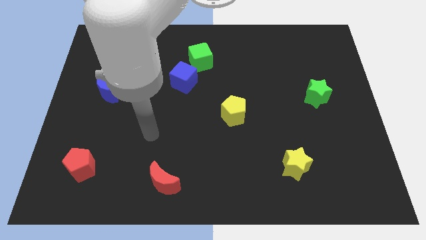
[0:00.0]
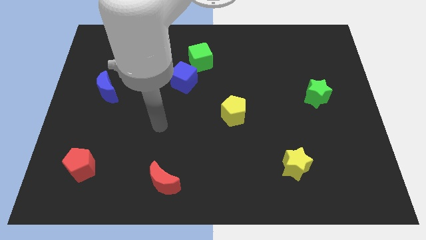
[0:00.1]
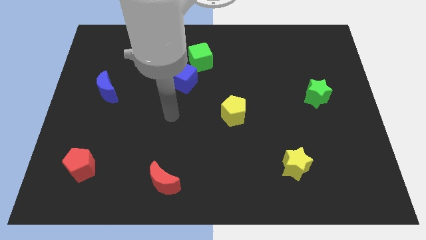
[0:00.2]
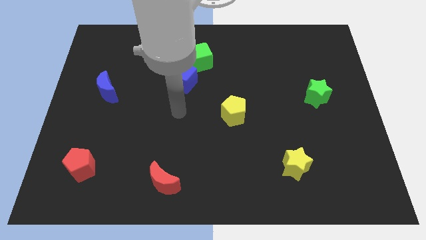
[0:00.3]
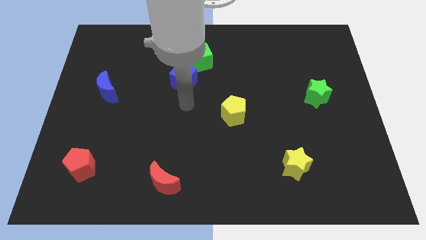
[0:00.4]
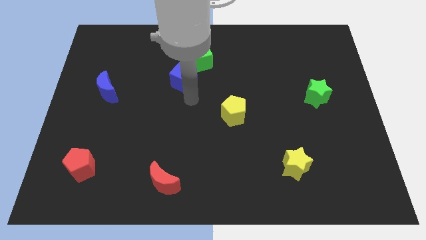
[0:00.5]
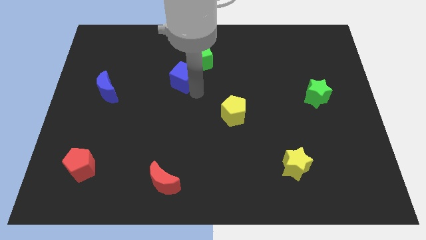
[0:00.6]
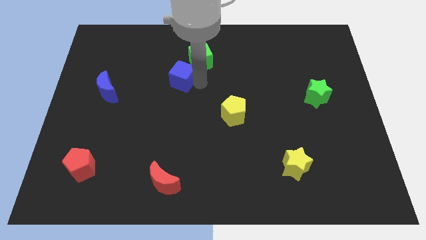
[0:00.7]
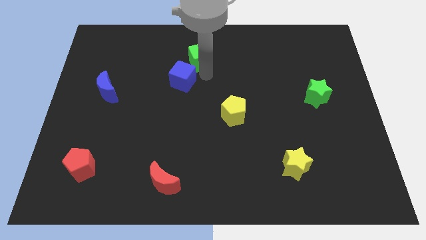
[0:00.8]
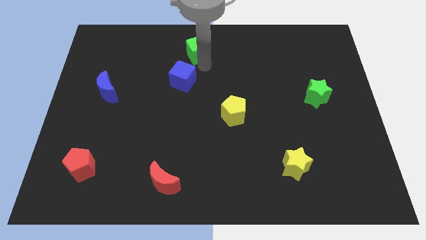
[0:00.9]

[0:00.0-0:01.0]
pull the blue cube apart from the green cube

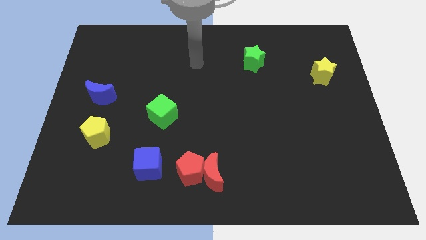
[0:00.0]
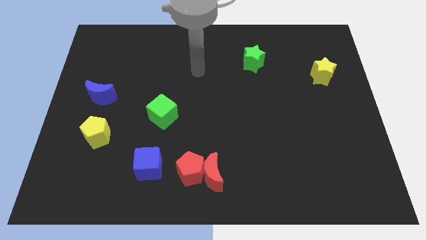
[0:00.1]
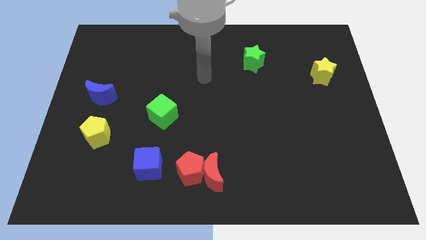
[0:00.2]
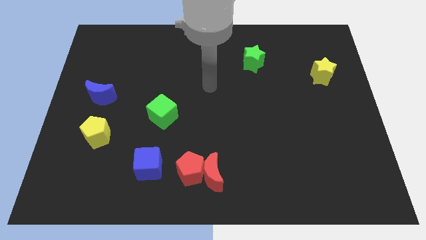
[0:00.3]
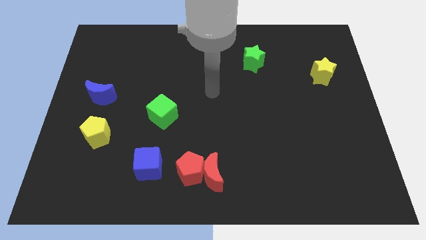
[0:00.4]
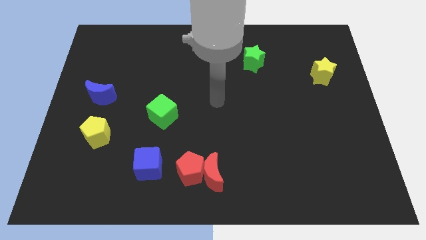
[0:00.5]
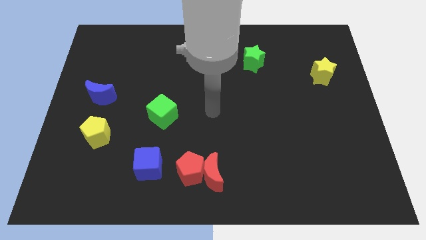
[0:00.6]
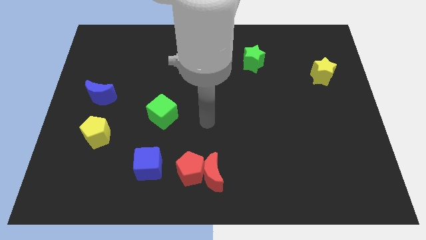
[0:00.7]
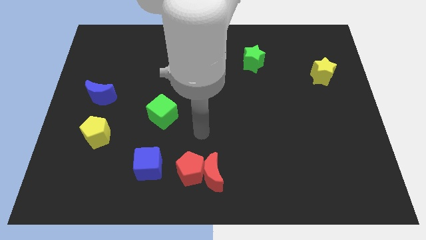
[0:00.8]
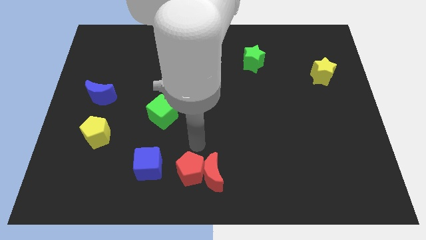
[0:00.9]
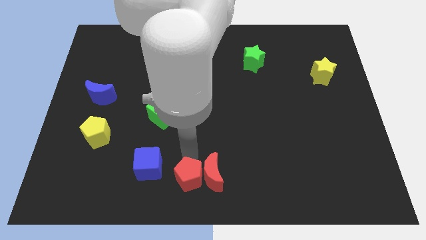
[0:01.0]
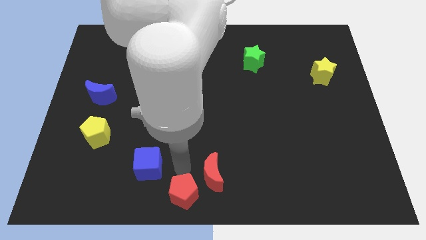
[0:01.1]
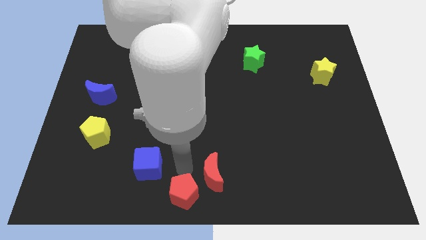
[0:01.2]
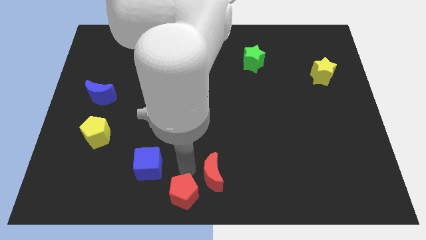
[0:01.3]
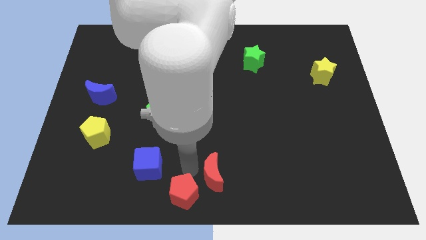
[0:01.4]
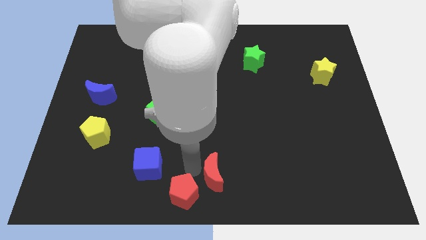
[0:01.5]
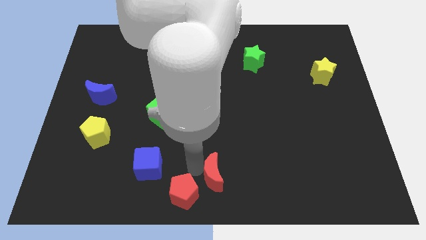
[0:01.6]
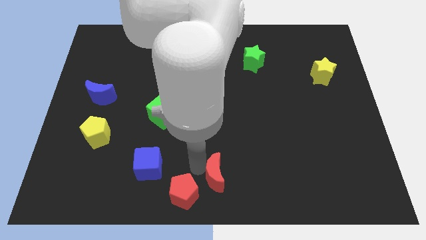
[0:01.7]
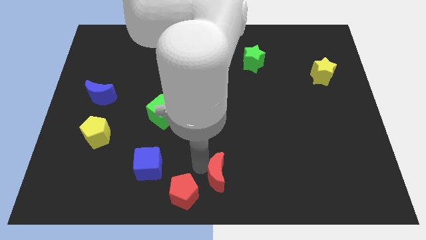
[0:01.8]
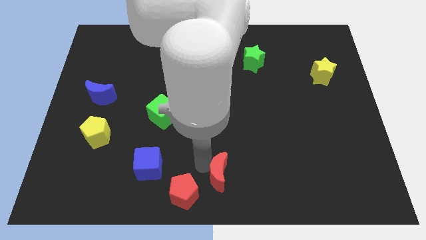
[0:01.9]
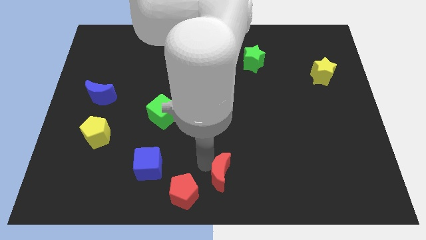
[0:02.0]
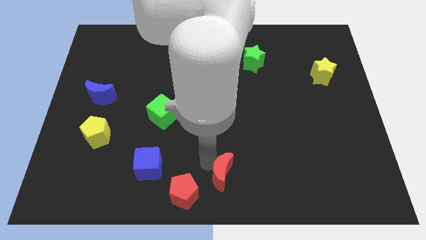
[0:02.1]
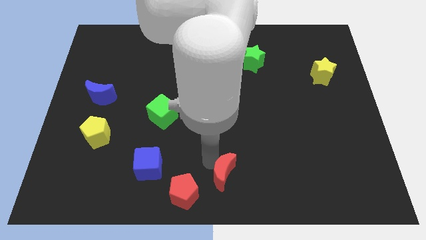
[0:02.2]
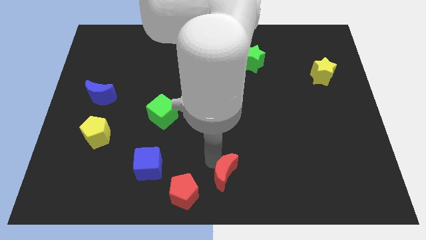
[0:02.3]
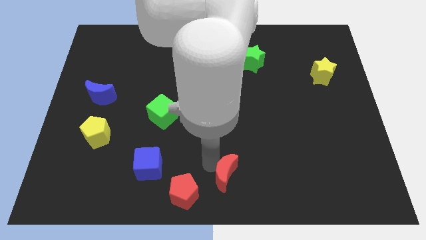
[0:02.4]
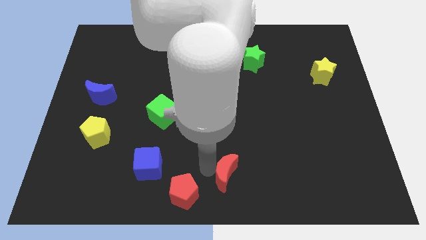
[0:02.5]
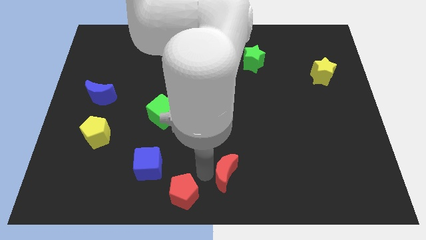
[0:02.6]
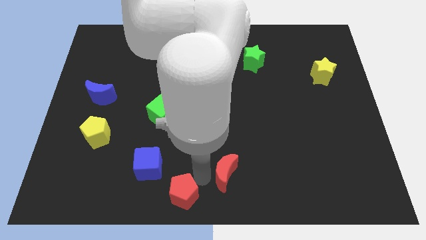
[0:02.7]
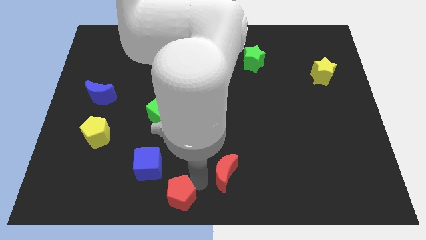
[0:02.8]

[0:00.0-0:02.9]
move the red moon away from the red pentagon

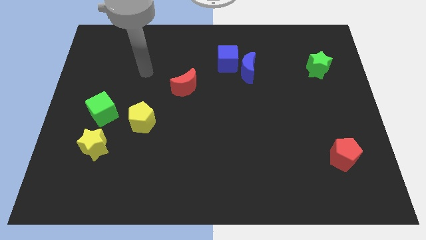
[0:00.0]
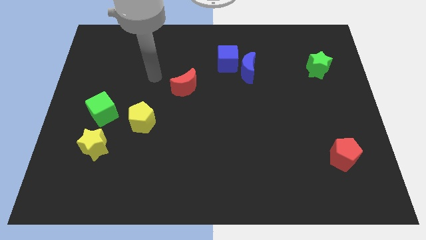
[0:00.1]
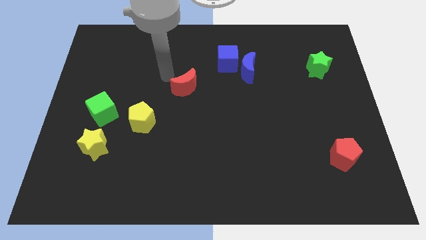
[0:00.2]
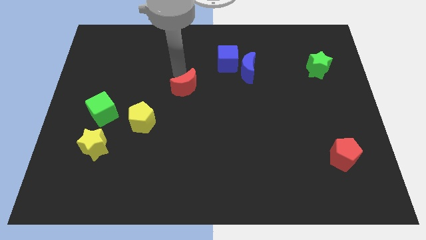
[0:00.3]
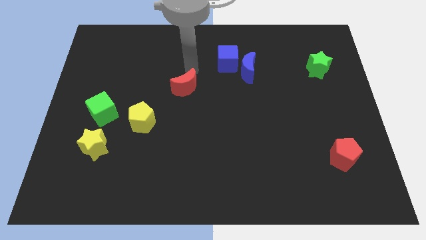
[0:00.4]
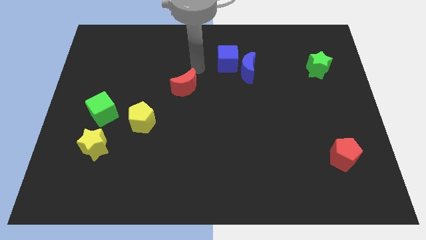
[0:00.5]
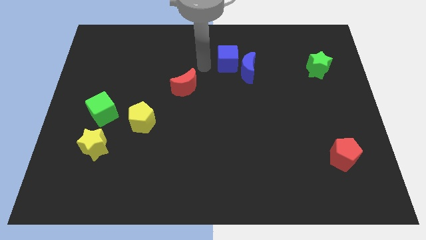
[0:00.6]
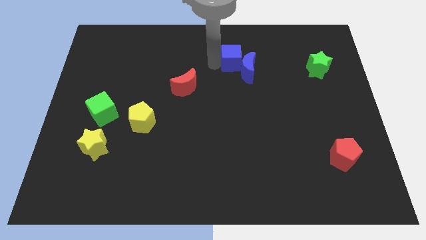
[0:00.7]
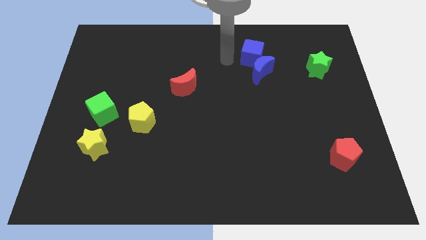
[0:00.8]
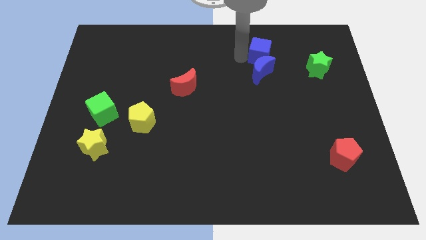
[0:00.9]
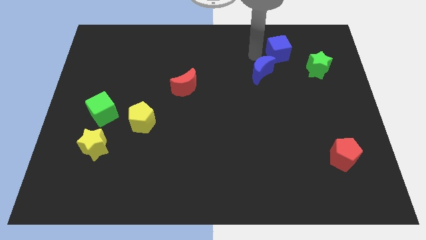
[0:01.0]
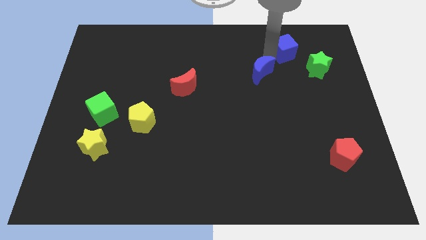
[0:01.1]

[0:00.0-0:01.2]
pull the blue moon apart from the blue cube

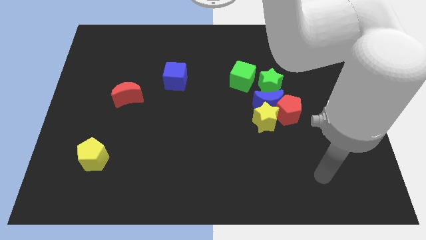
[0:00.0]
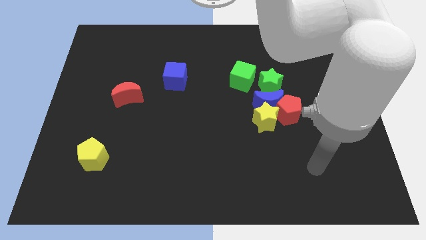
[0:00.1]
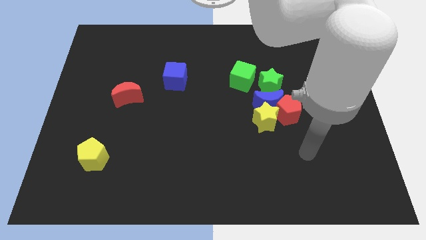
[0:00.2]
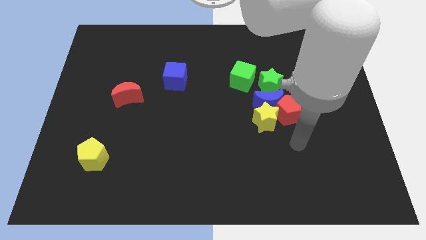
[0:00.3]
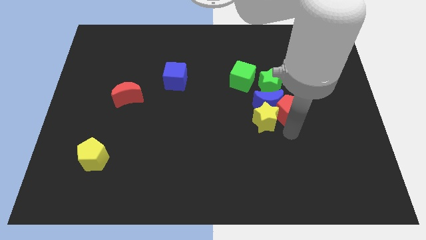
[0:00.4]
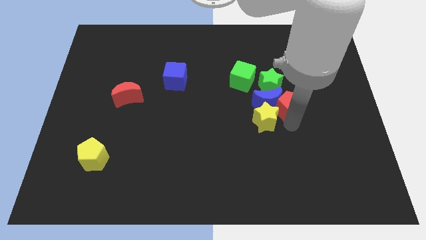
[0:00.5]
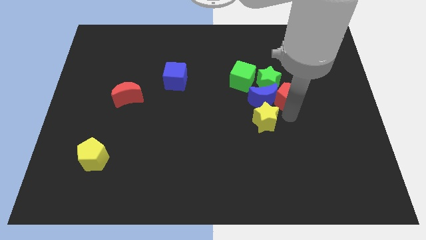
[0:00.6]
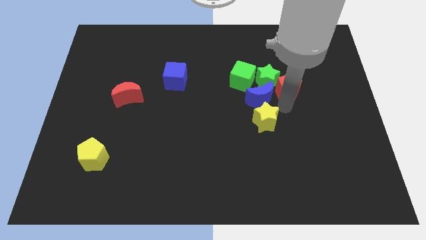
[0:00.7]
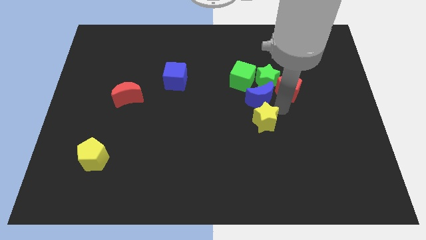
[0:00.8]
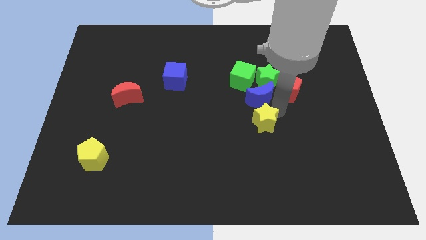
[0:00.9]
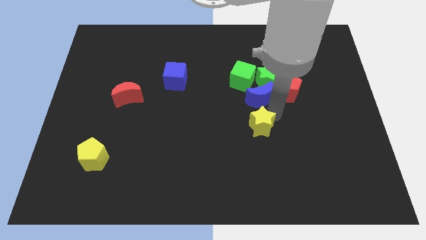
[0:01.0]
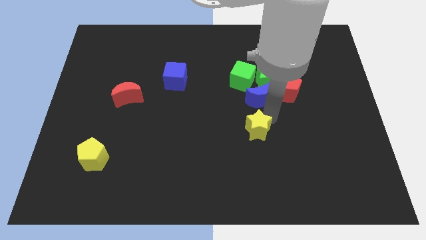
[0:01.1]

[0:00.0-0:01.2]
separate the yellow star from the blue moon and red pentagon

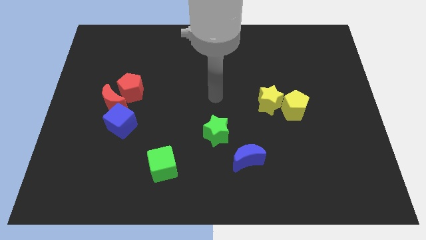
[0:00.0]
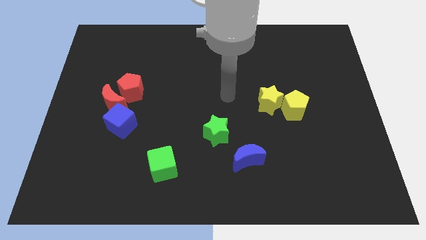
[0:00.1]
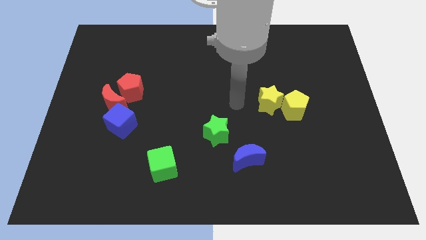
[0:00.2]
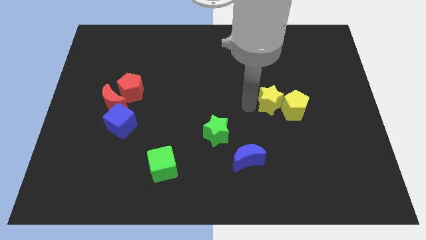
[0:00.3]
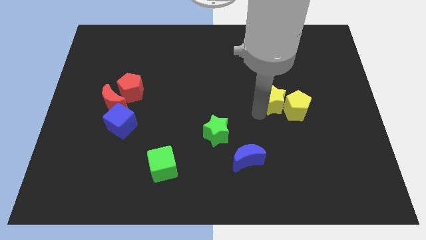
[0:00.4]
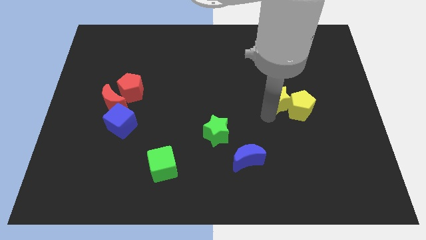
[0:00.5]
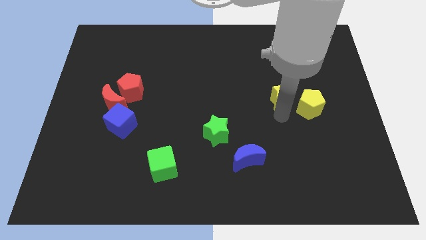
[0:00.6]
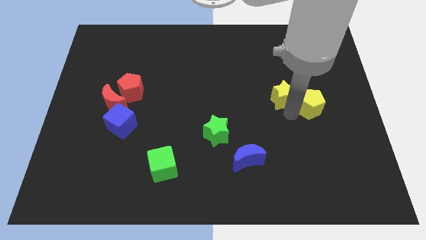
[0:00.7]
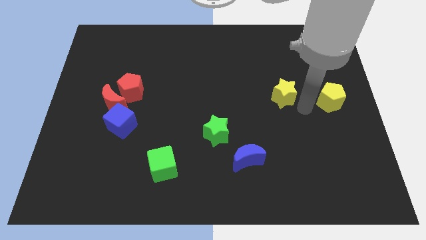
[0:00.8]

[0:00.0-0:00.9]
separate the yellow star from the yellow pentagon

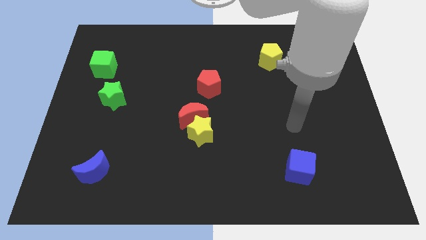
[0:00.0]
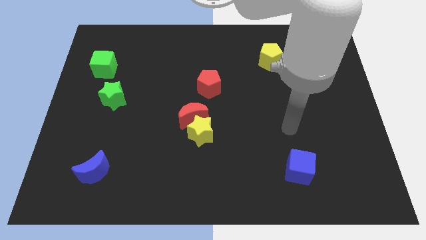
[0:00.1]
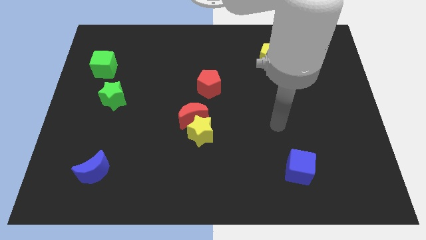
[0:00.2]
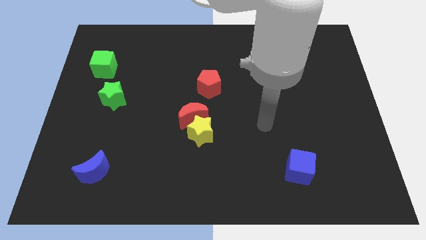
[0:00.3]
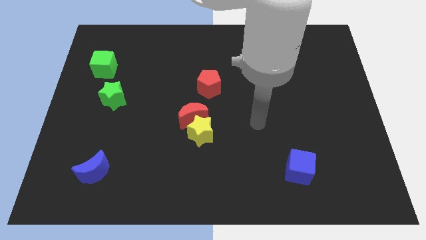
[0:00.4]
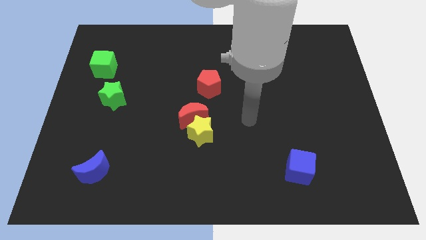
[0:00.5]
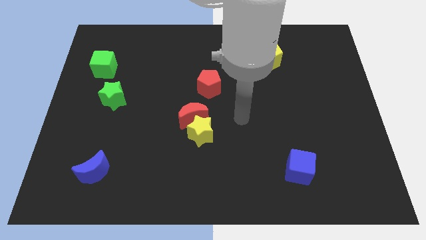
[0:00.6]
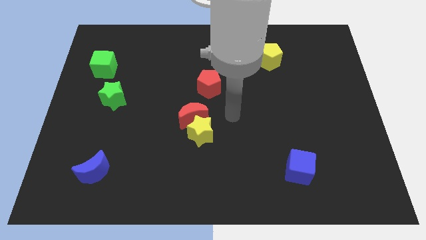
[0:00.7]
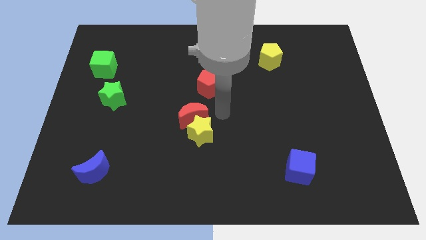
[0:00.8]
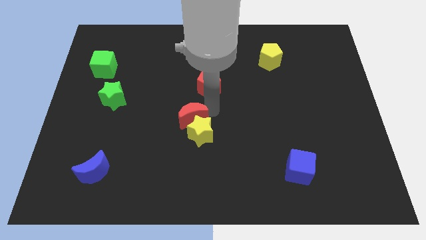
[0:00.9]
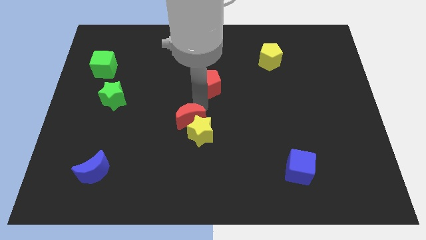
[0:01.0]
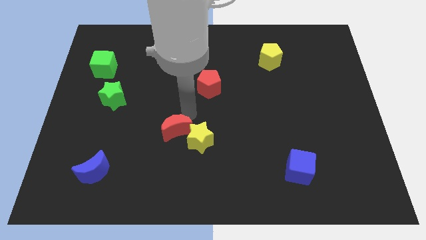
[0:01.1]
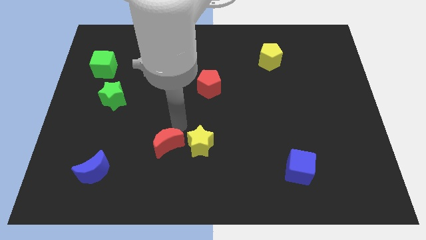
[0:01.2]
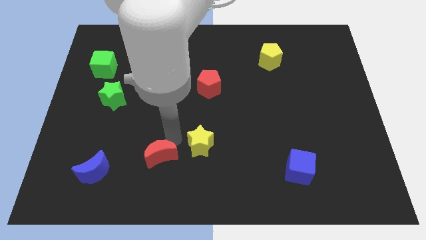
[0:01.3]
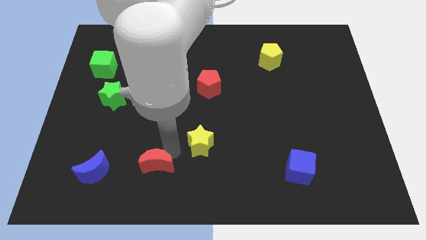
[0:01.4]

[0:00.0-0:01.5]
move the yellow star away from the red moon

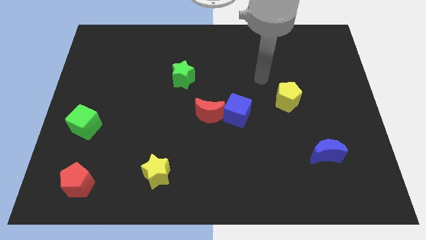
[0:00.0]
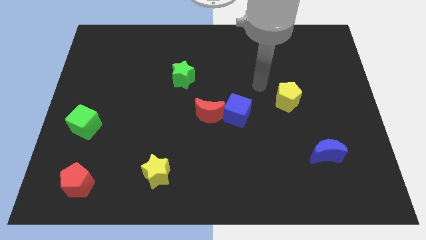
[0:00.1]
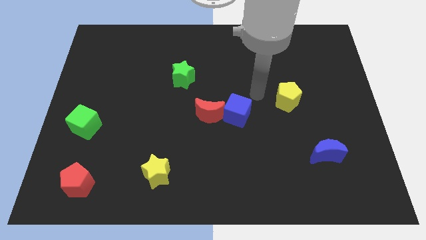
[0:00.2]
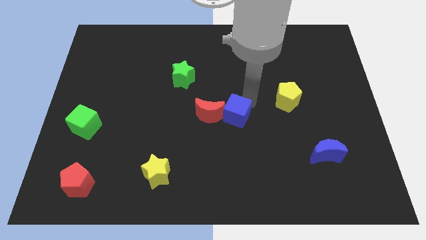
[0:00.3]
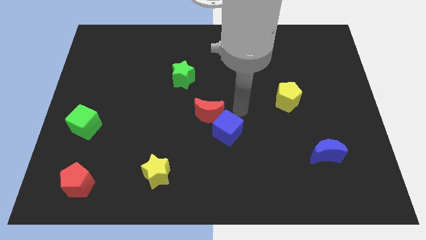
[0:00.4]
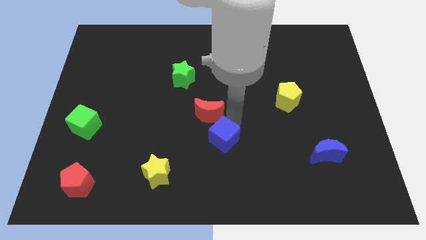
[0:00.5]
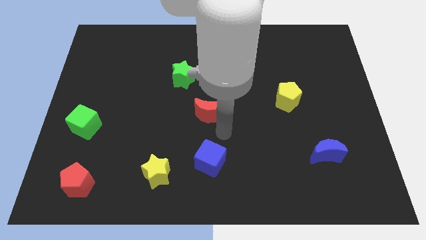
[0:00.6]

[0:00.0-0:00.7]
move the red moon away from the blue cube
